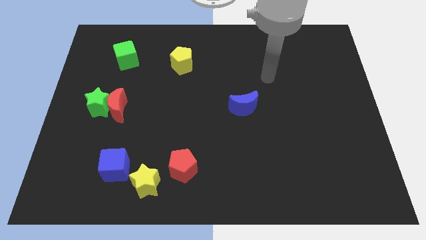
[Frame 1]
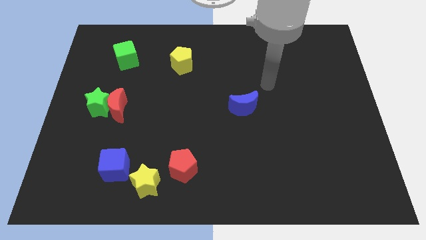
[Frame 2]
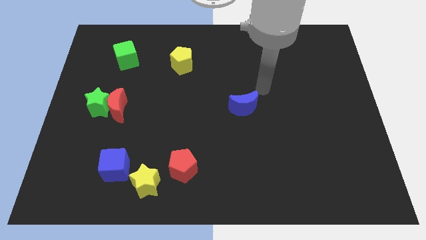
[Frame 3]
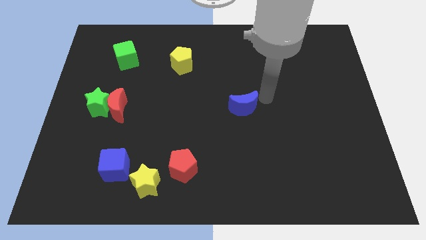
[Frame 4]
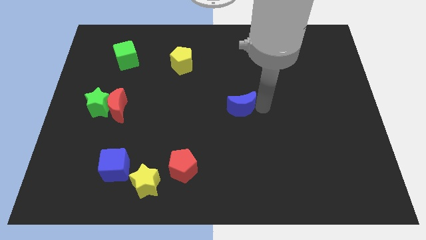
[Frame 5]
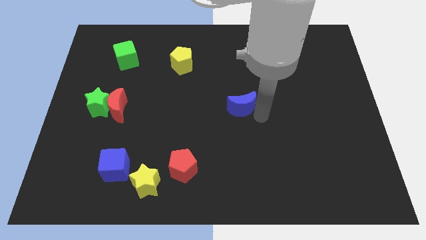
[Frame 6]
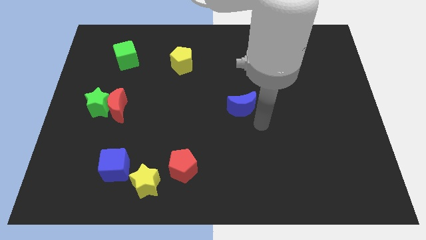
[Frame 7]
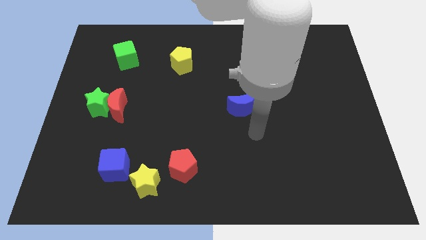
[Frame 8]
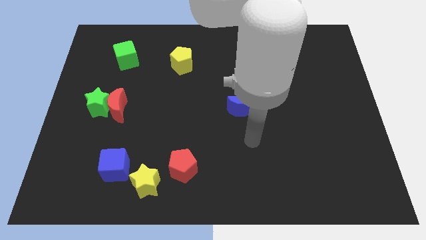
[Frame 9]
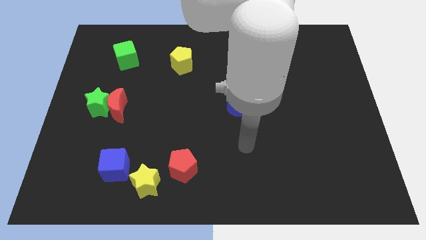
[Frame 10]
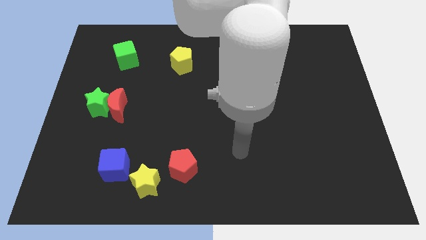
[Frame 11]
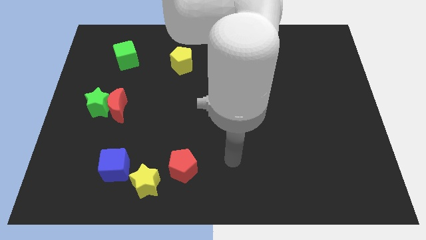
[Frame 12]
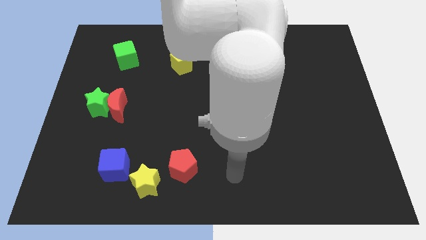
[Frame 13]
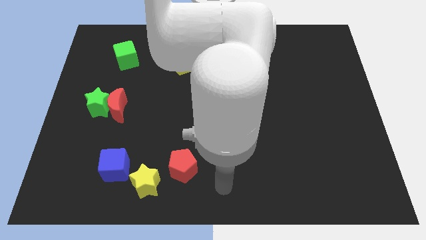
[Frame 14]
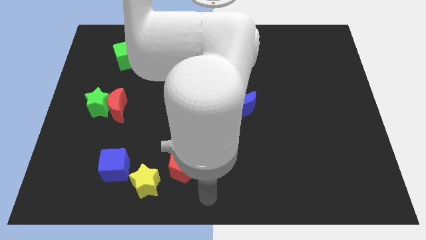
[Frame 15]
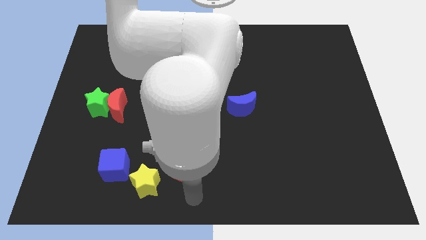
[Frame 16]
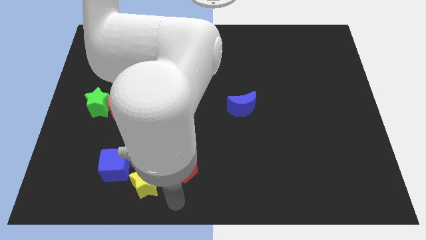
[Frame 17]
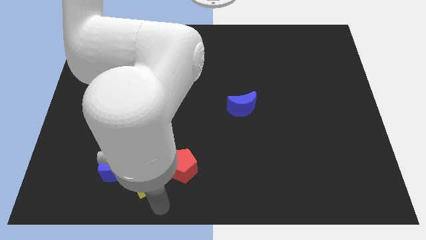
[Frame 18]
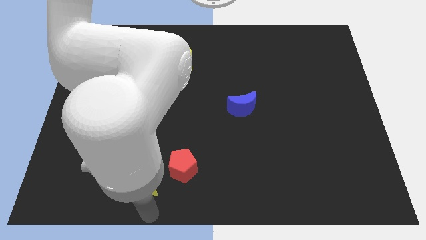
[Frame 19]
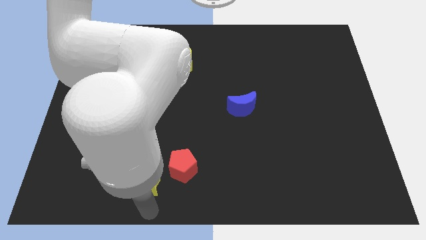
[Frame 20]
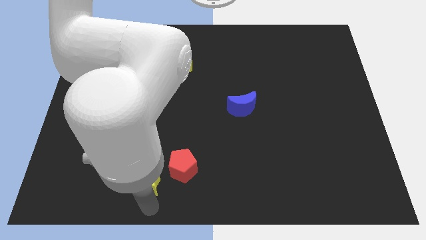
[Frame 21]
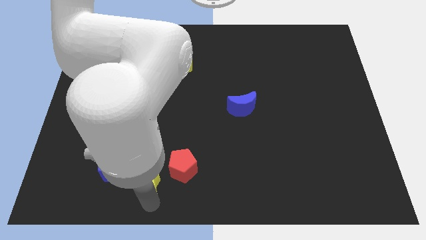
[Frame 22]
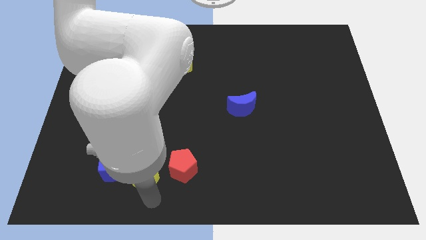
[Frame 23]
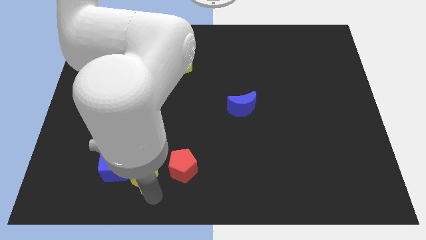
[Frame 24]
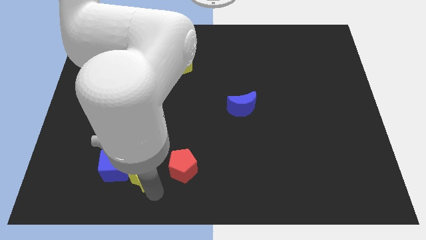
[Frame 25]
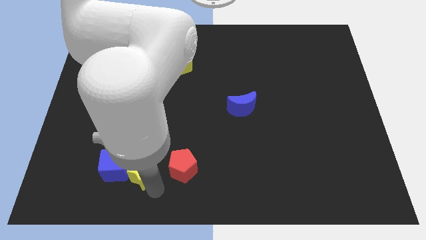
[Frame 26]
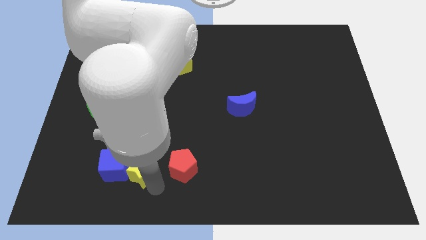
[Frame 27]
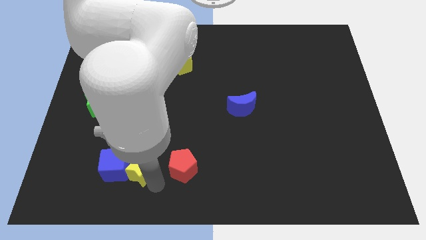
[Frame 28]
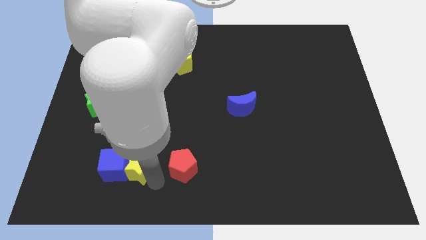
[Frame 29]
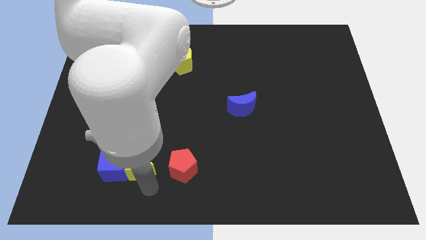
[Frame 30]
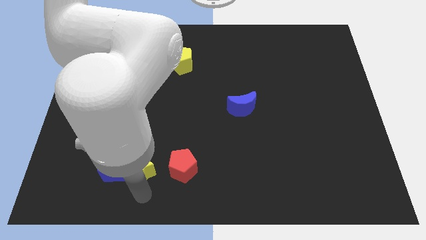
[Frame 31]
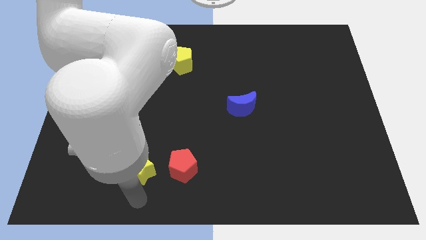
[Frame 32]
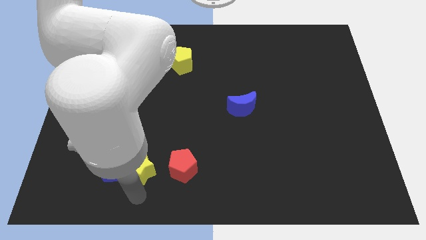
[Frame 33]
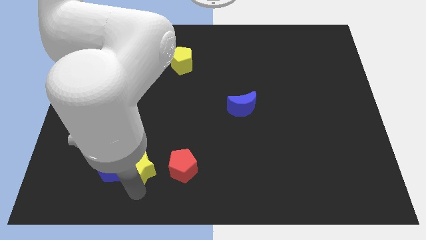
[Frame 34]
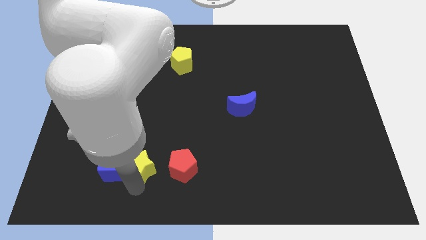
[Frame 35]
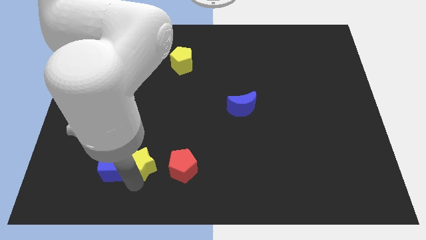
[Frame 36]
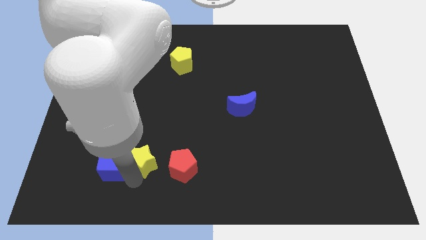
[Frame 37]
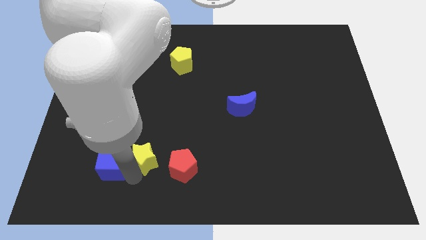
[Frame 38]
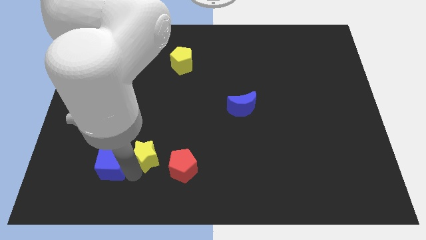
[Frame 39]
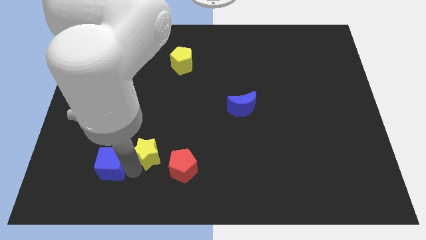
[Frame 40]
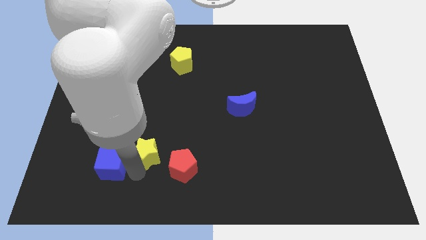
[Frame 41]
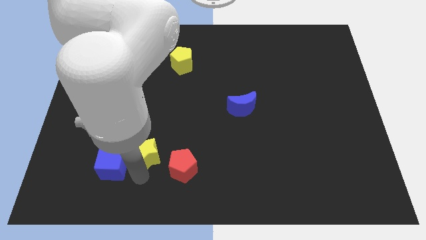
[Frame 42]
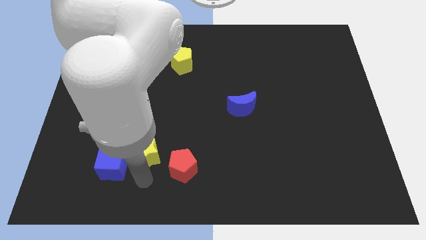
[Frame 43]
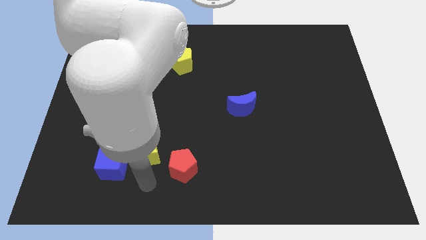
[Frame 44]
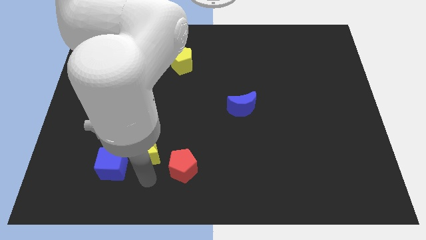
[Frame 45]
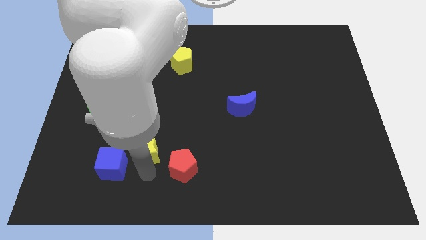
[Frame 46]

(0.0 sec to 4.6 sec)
move the yellow star slightly up

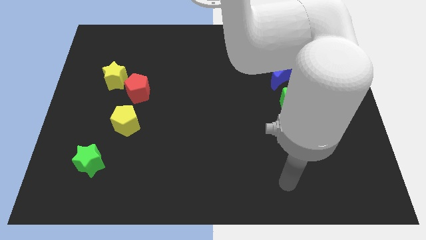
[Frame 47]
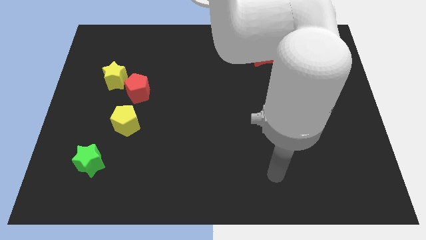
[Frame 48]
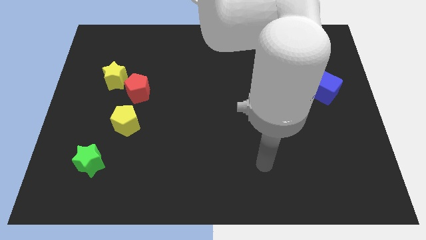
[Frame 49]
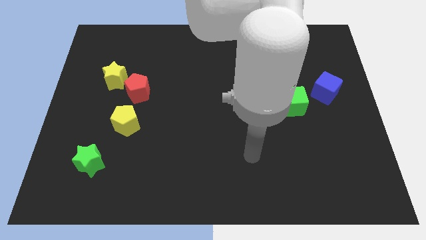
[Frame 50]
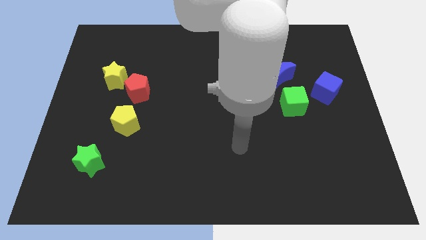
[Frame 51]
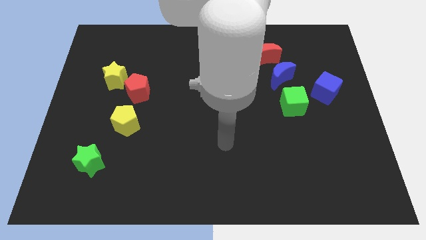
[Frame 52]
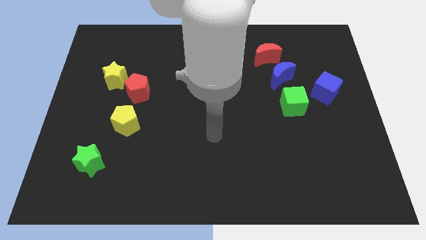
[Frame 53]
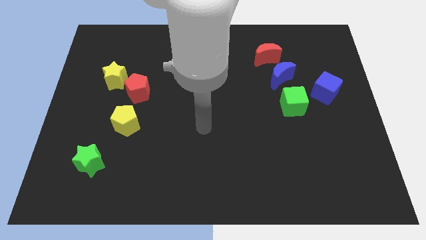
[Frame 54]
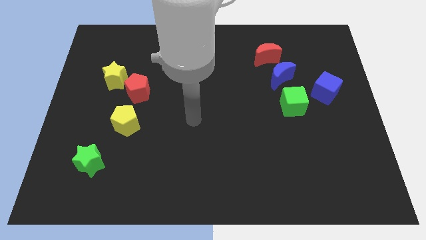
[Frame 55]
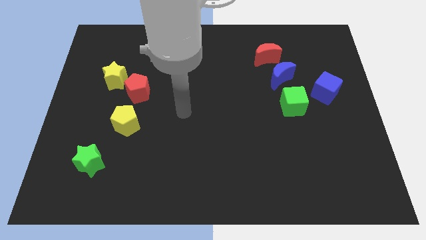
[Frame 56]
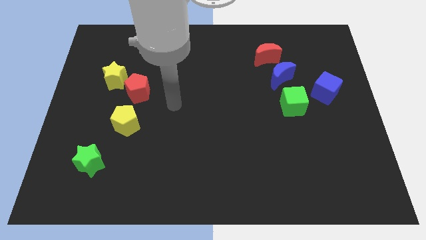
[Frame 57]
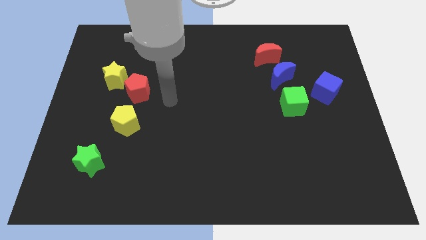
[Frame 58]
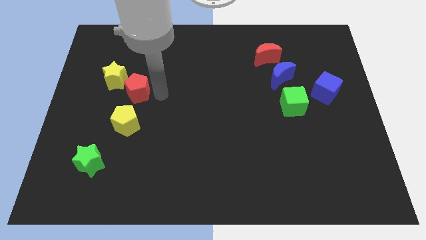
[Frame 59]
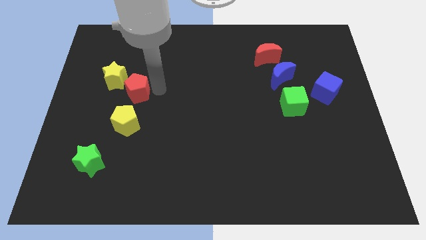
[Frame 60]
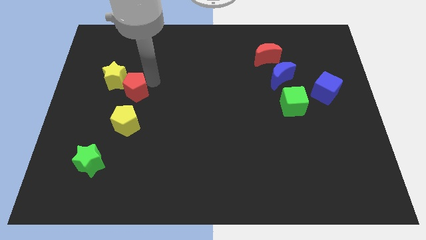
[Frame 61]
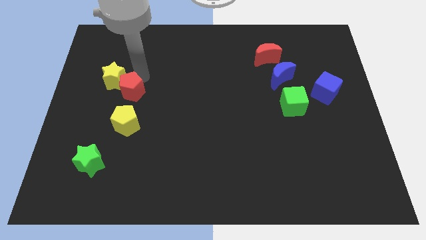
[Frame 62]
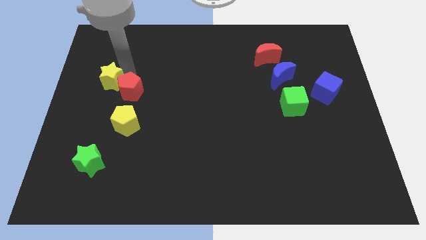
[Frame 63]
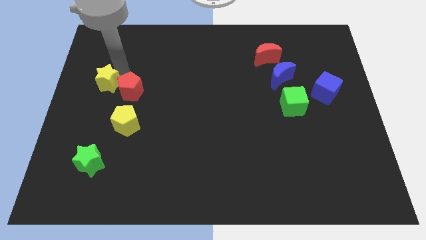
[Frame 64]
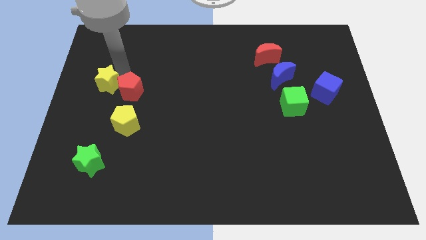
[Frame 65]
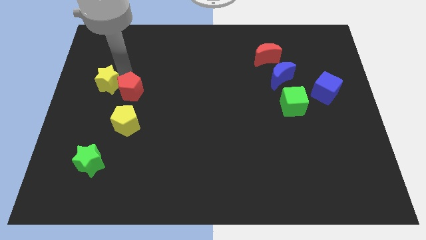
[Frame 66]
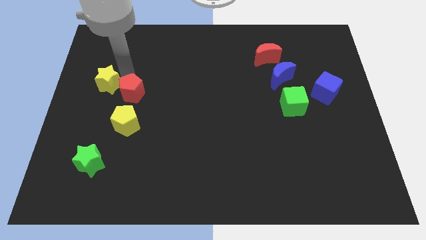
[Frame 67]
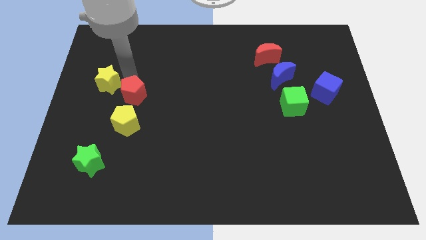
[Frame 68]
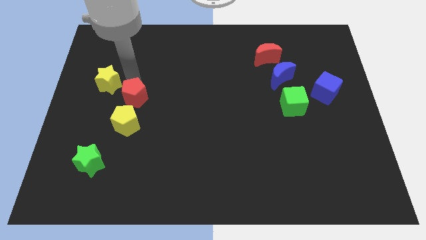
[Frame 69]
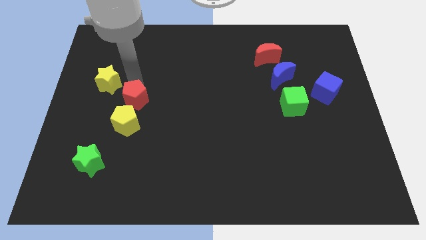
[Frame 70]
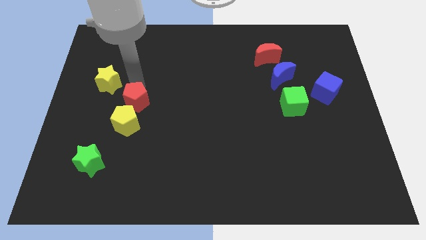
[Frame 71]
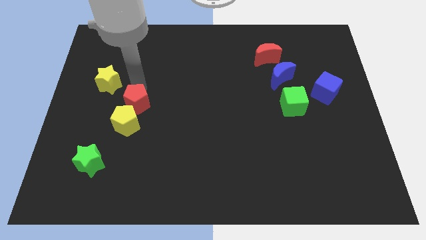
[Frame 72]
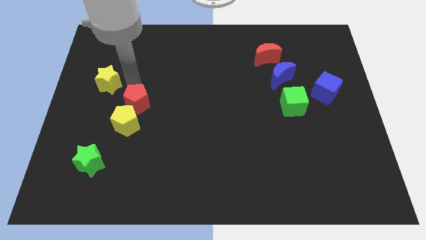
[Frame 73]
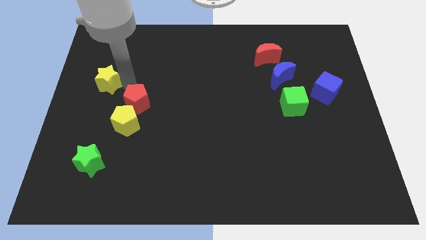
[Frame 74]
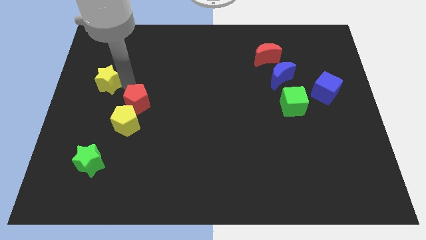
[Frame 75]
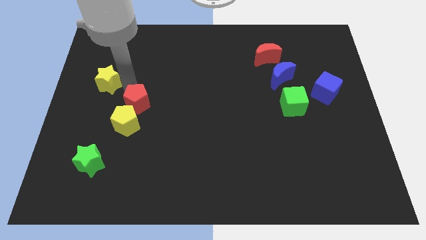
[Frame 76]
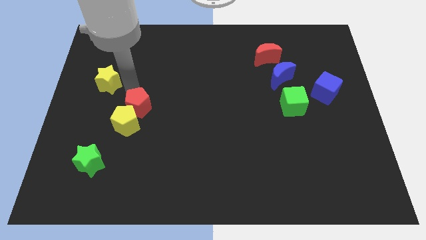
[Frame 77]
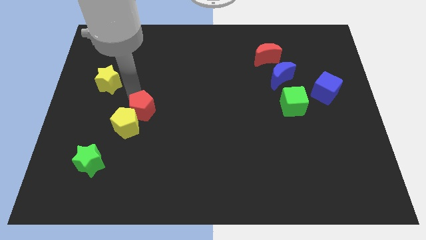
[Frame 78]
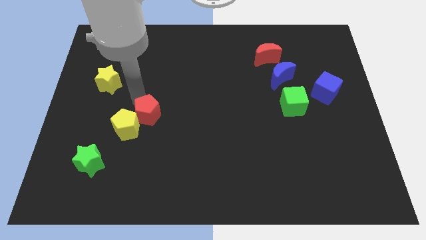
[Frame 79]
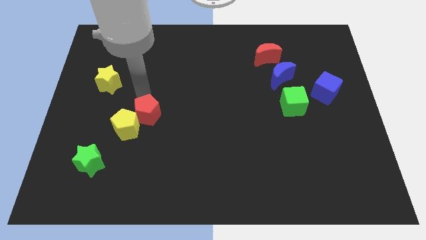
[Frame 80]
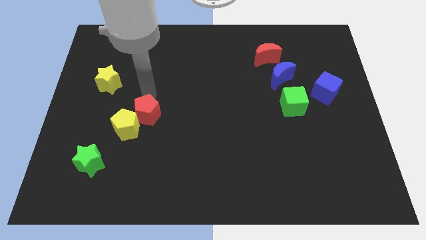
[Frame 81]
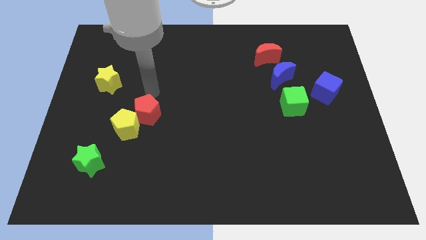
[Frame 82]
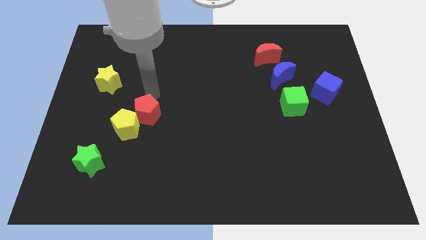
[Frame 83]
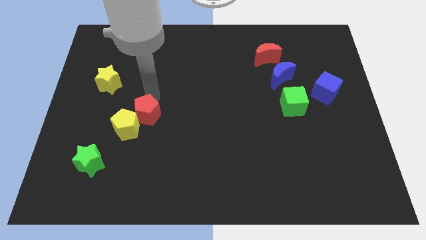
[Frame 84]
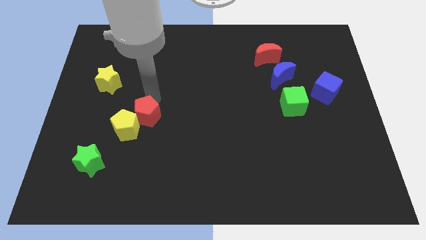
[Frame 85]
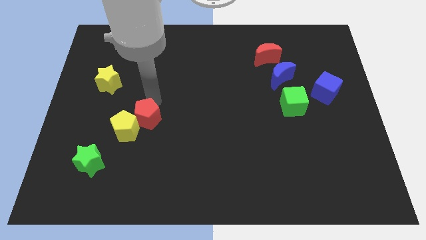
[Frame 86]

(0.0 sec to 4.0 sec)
slide the red pentagon downwards a little bit

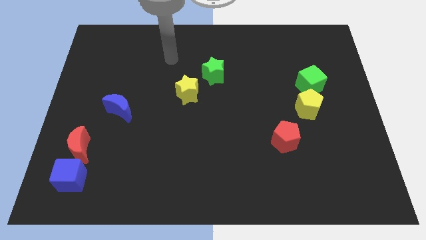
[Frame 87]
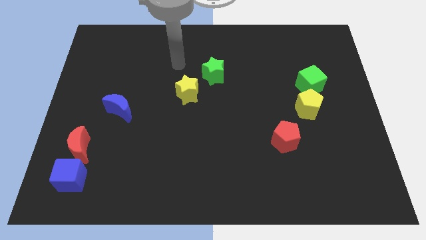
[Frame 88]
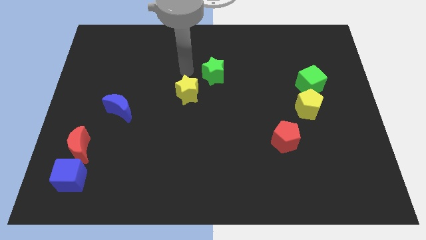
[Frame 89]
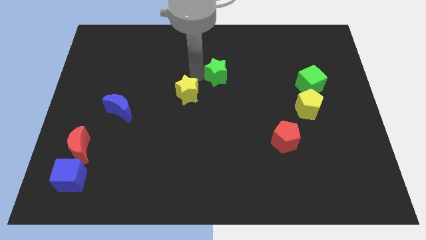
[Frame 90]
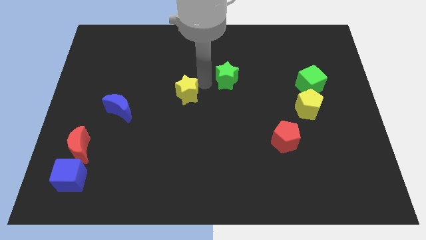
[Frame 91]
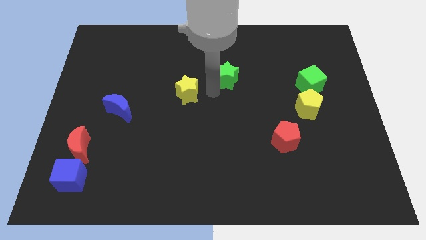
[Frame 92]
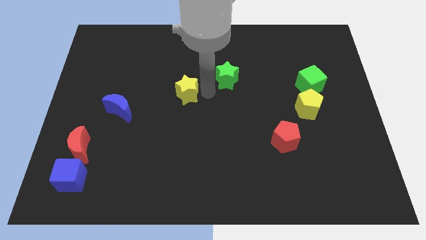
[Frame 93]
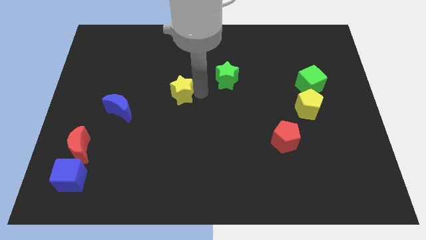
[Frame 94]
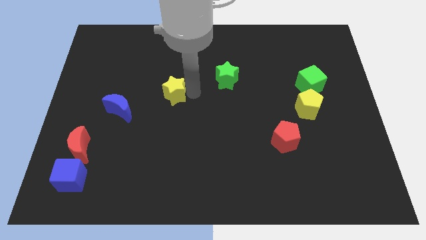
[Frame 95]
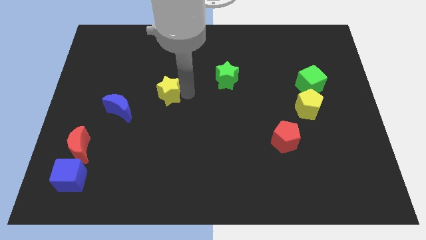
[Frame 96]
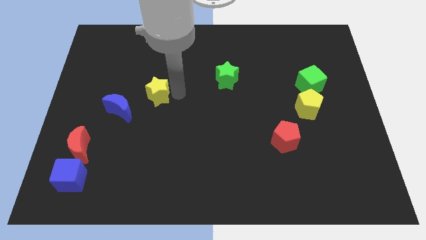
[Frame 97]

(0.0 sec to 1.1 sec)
slightly slide the yellow star left
